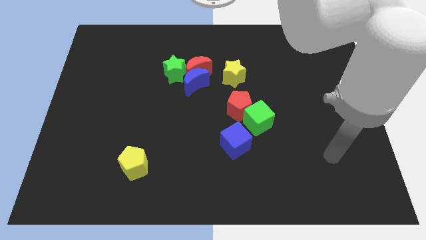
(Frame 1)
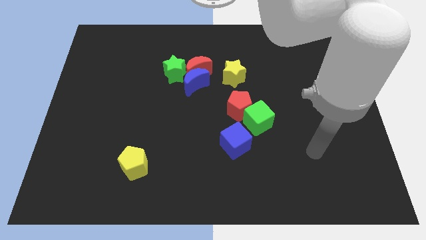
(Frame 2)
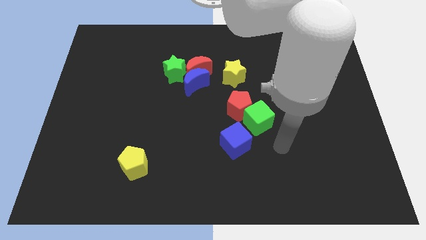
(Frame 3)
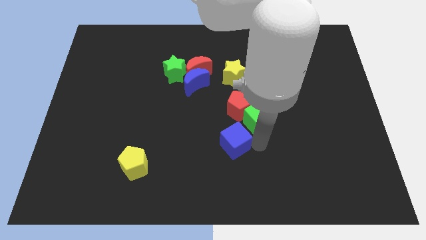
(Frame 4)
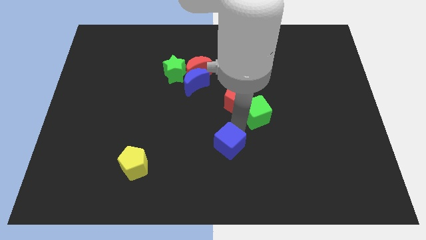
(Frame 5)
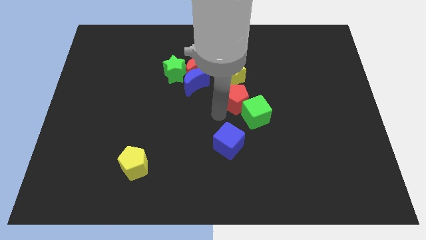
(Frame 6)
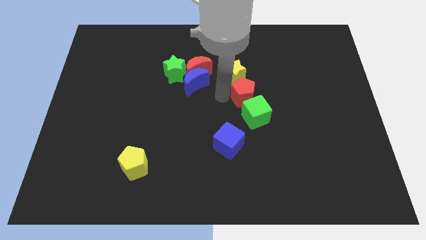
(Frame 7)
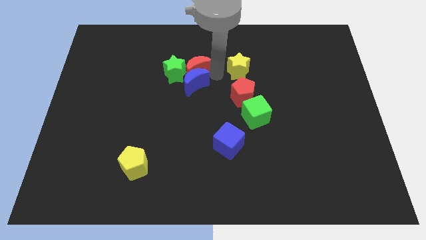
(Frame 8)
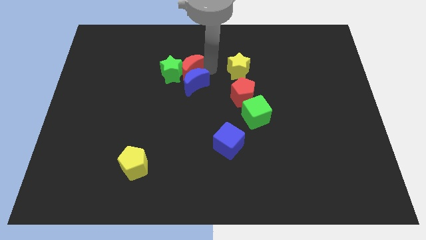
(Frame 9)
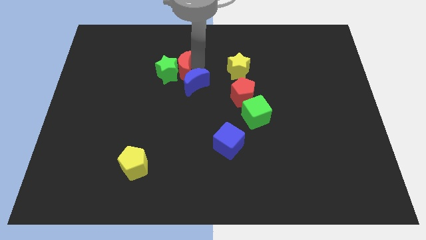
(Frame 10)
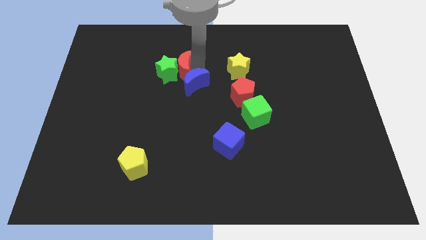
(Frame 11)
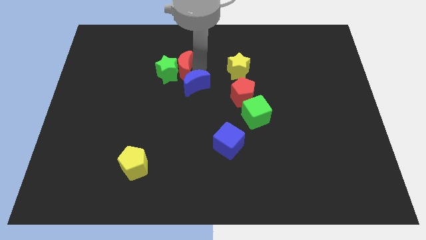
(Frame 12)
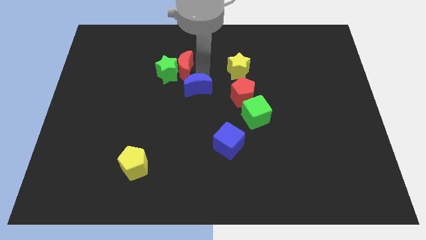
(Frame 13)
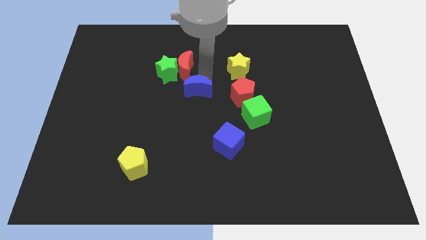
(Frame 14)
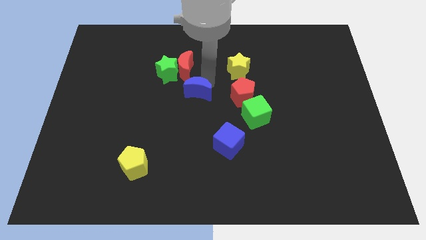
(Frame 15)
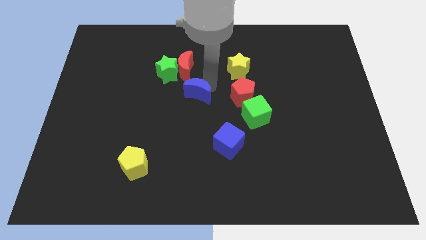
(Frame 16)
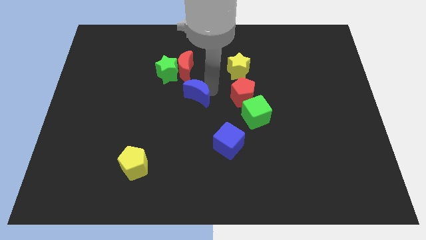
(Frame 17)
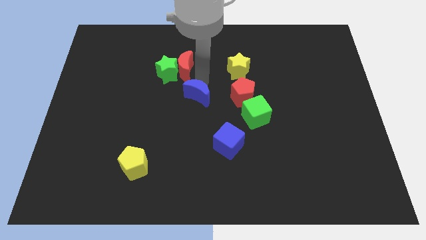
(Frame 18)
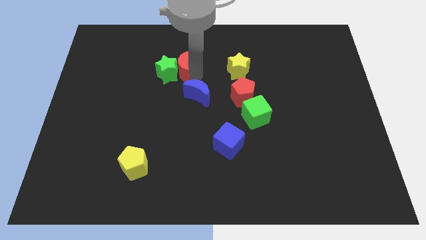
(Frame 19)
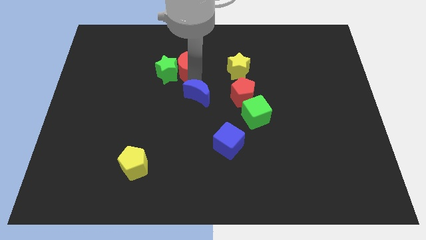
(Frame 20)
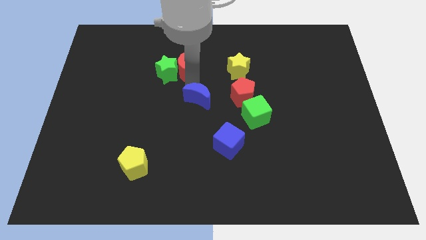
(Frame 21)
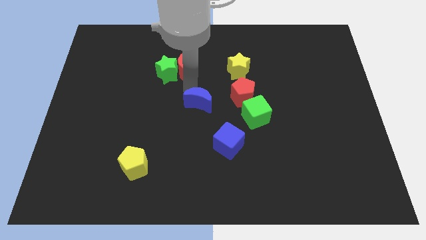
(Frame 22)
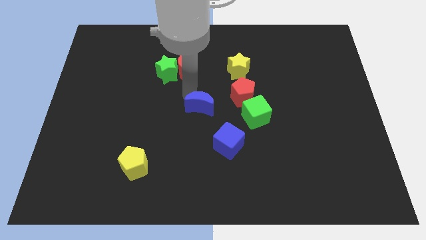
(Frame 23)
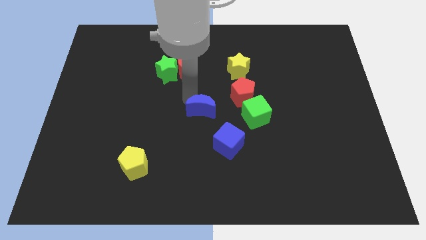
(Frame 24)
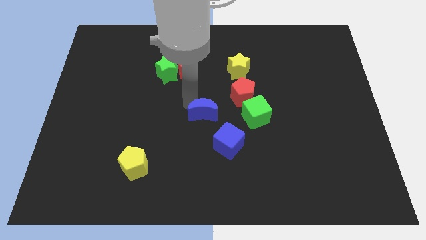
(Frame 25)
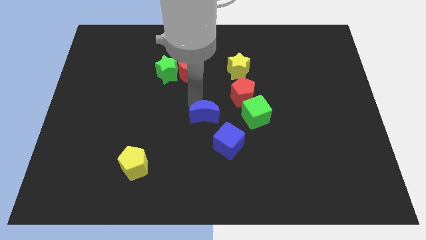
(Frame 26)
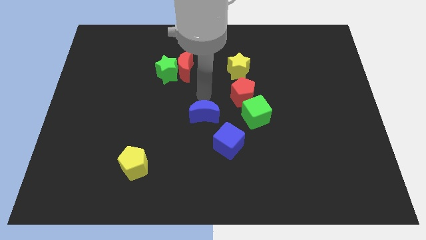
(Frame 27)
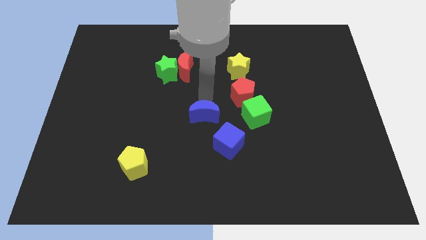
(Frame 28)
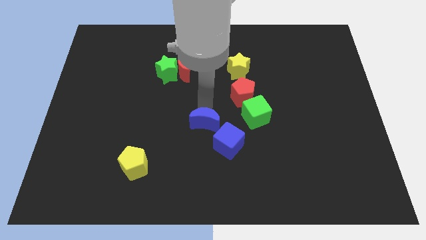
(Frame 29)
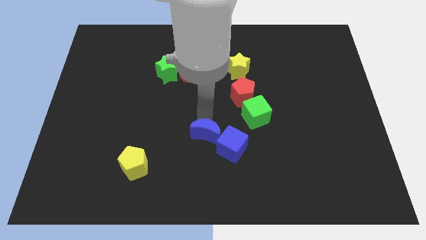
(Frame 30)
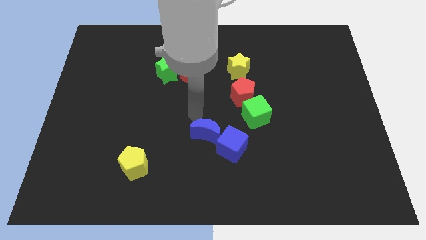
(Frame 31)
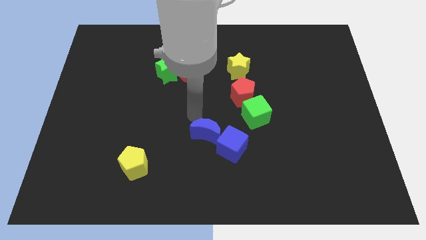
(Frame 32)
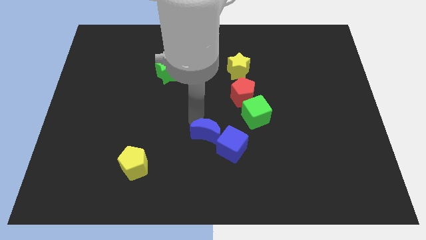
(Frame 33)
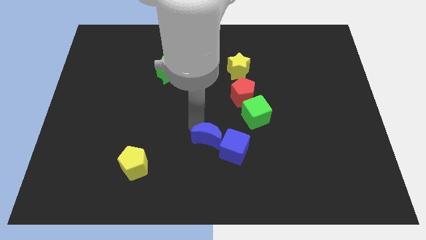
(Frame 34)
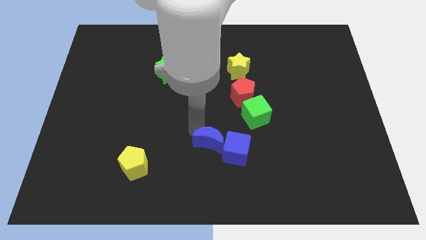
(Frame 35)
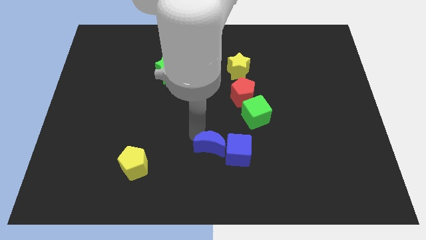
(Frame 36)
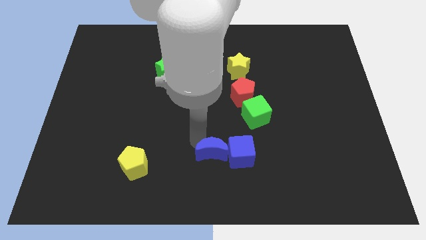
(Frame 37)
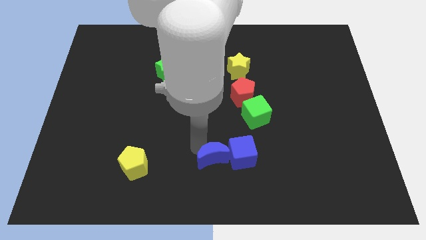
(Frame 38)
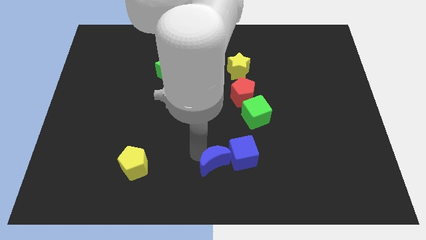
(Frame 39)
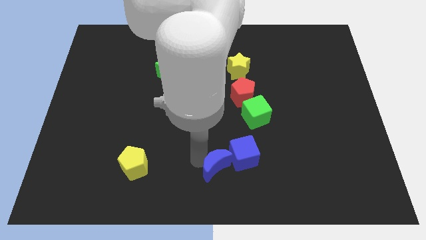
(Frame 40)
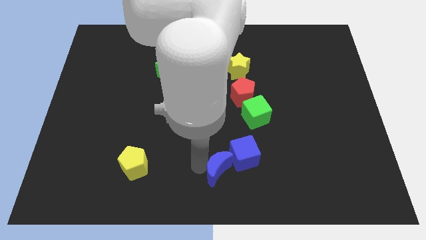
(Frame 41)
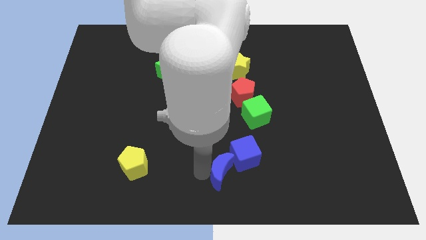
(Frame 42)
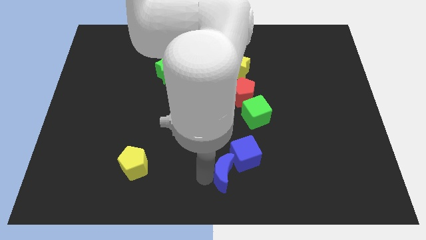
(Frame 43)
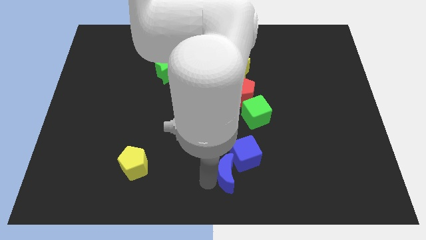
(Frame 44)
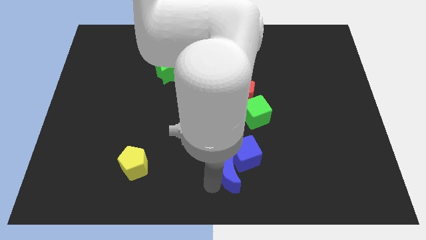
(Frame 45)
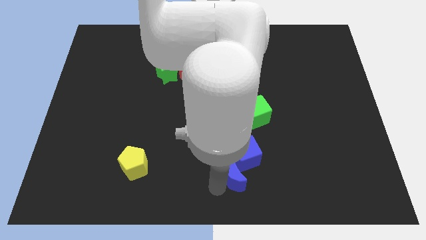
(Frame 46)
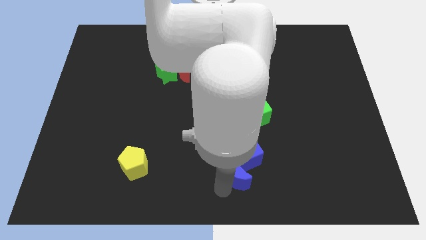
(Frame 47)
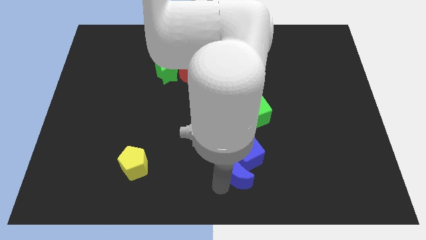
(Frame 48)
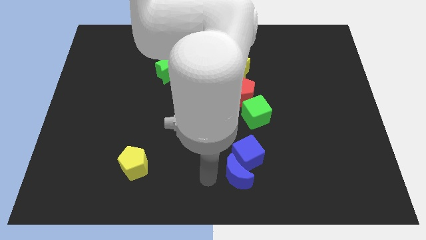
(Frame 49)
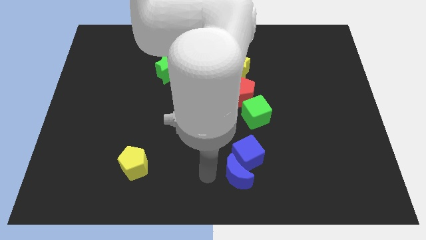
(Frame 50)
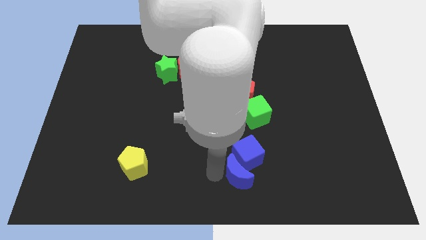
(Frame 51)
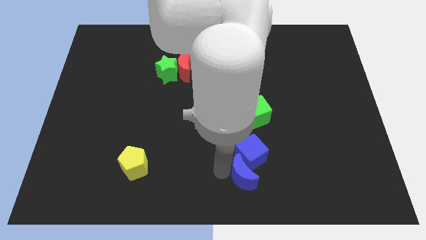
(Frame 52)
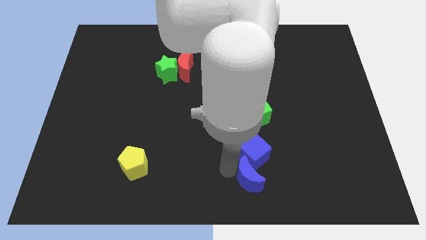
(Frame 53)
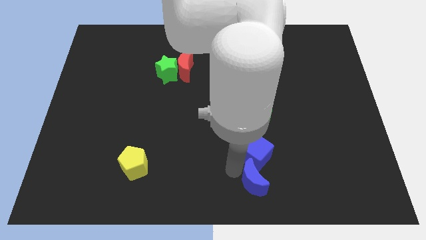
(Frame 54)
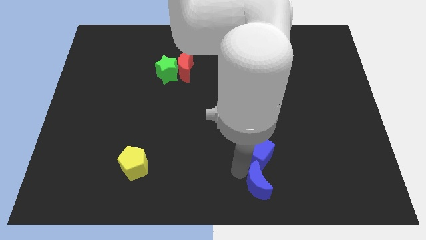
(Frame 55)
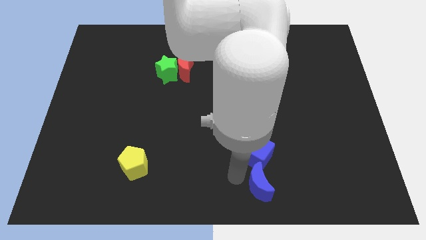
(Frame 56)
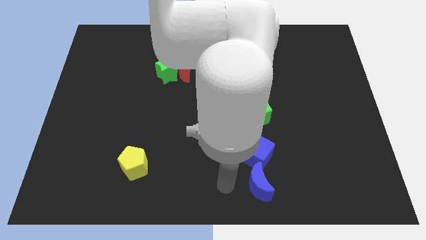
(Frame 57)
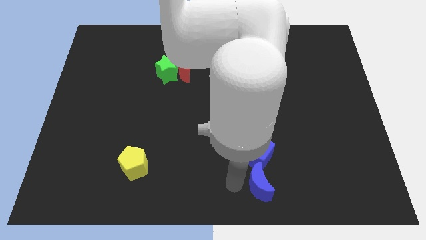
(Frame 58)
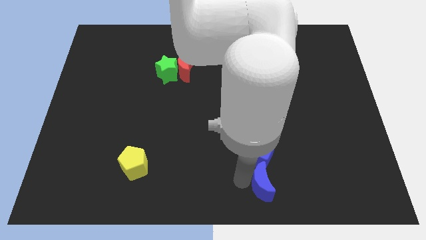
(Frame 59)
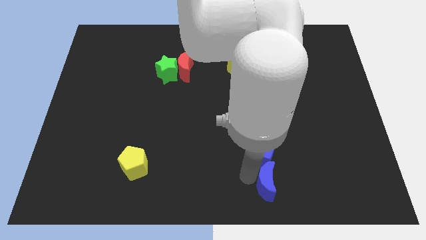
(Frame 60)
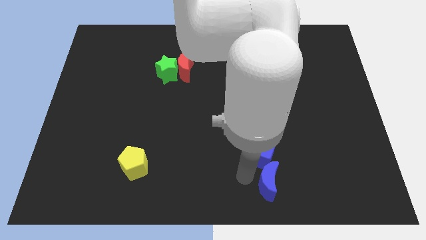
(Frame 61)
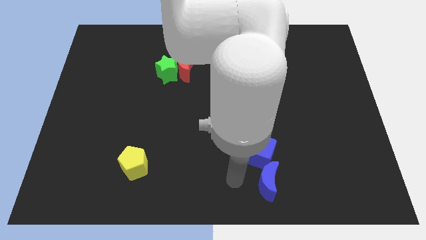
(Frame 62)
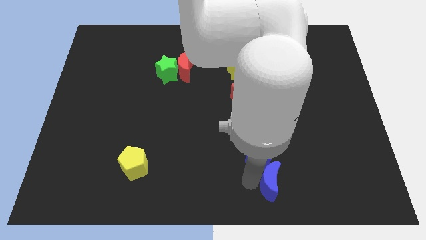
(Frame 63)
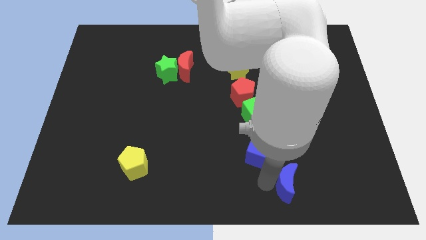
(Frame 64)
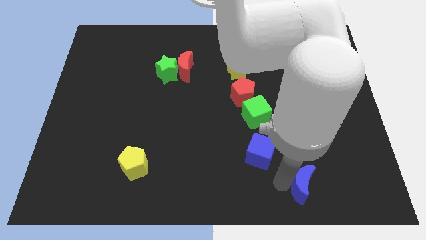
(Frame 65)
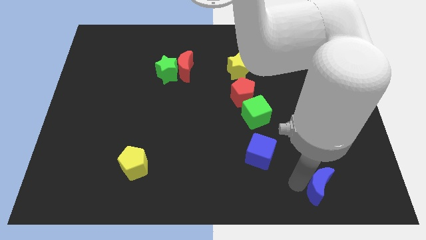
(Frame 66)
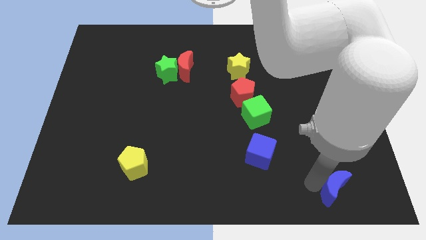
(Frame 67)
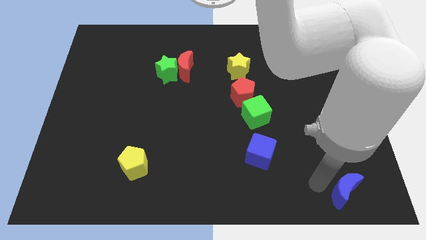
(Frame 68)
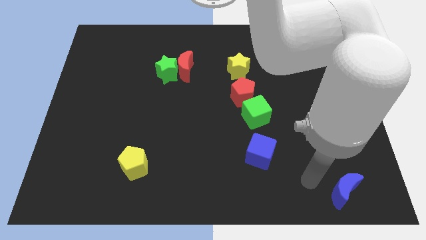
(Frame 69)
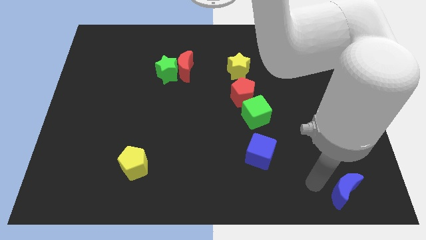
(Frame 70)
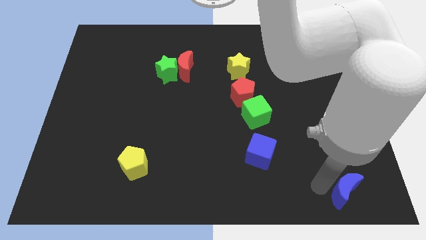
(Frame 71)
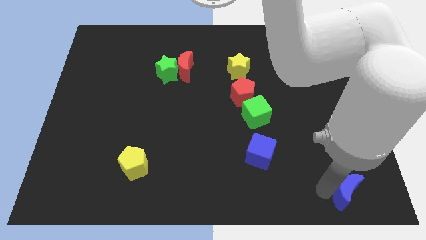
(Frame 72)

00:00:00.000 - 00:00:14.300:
move the blue moon to the bottom right of the board
